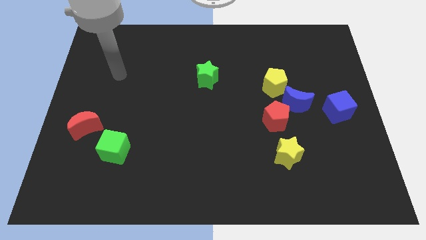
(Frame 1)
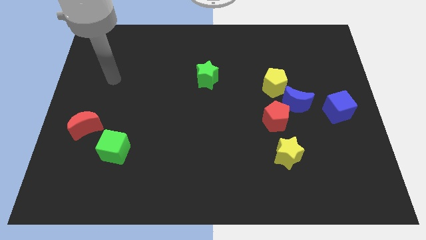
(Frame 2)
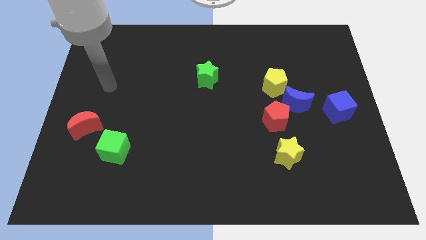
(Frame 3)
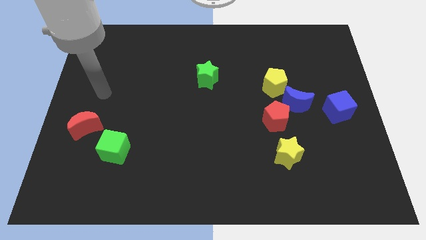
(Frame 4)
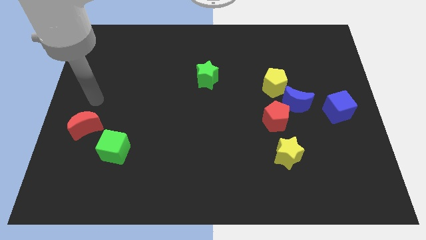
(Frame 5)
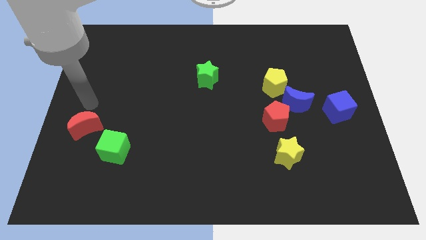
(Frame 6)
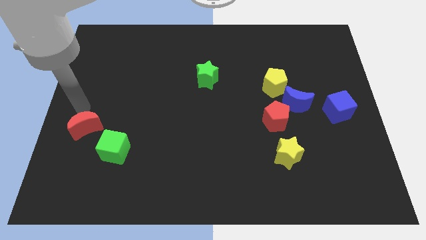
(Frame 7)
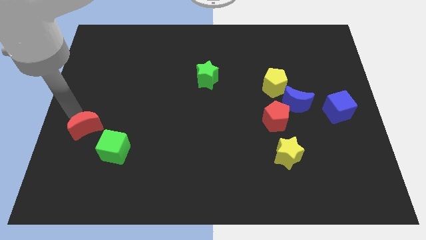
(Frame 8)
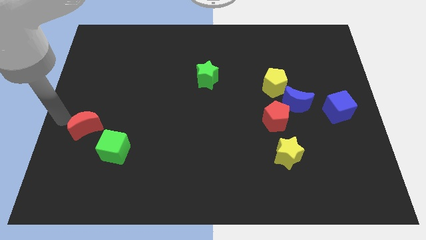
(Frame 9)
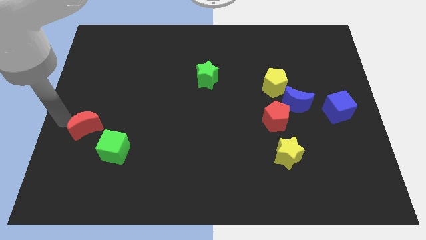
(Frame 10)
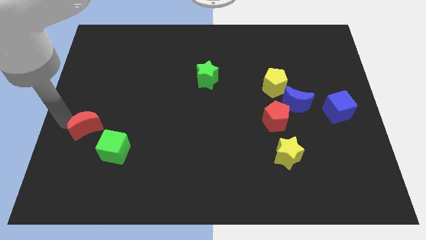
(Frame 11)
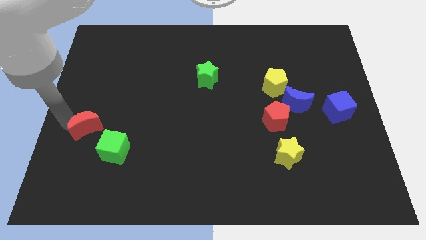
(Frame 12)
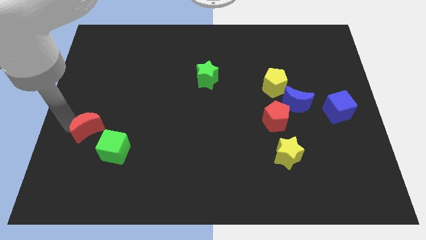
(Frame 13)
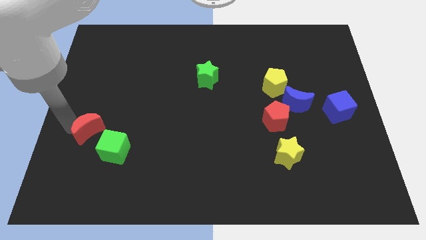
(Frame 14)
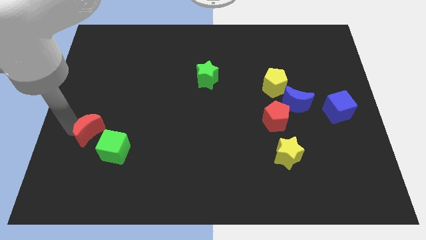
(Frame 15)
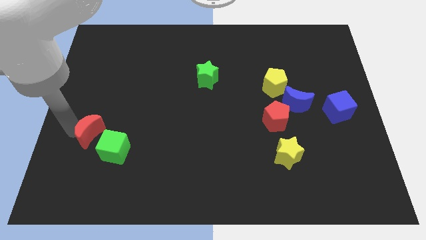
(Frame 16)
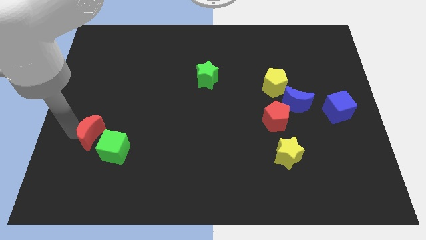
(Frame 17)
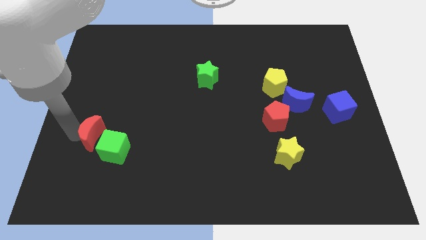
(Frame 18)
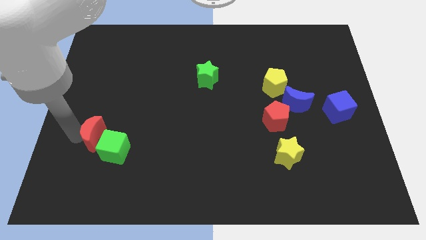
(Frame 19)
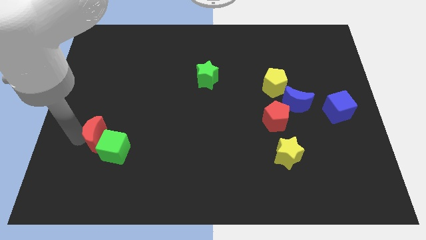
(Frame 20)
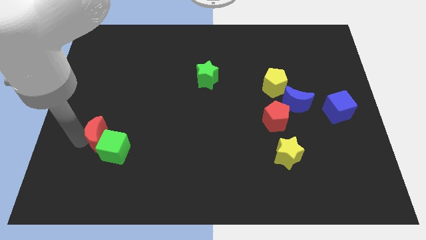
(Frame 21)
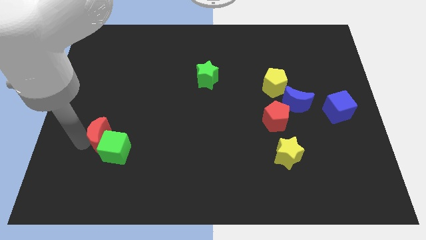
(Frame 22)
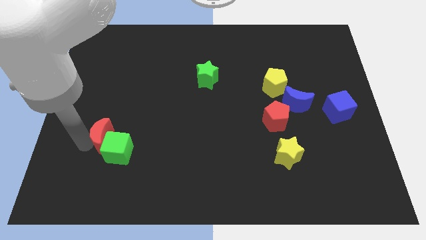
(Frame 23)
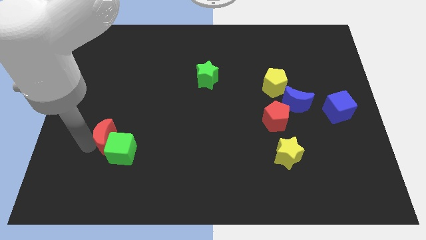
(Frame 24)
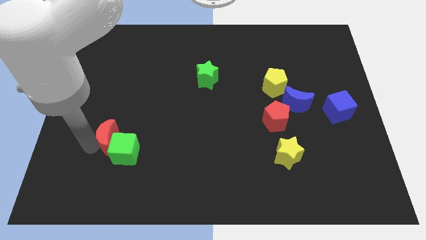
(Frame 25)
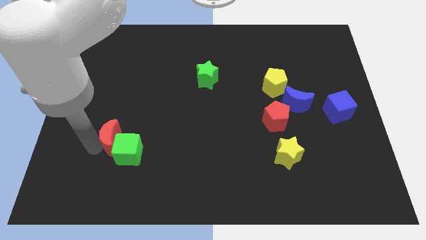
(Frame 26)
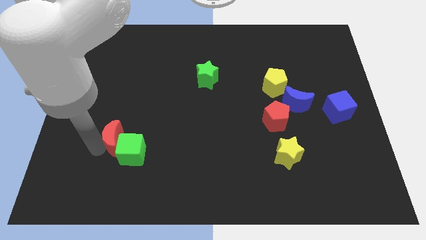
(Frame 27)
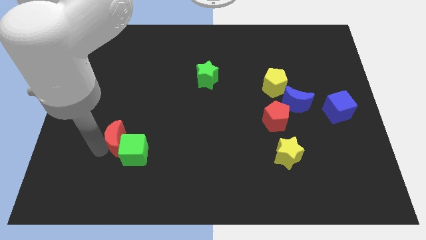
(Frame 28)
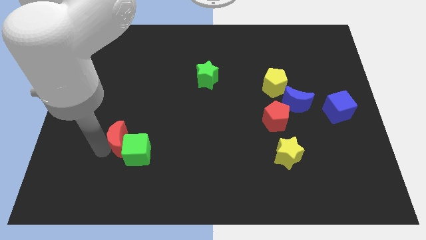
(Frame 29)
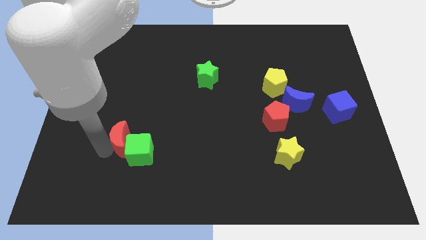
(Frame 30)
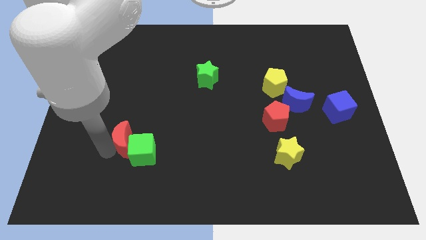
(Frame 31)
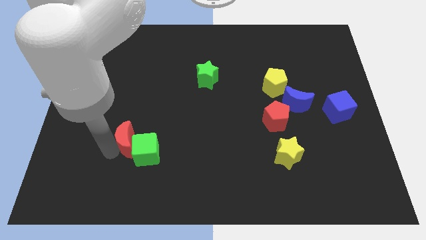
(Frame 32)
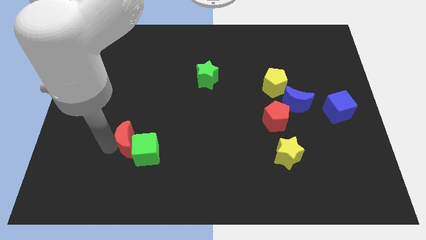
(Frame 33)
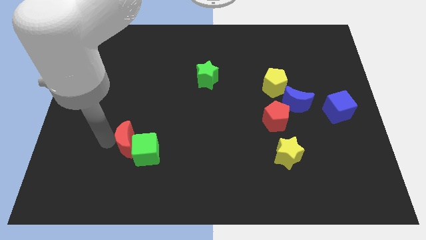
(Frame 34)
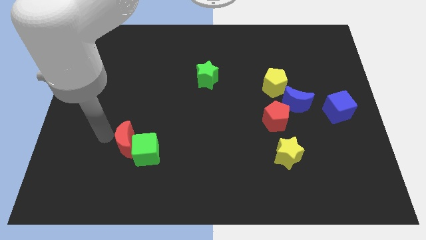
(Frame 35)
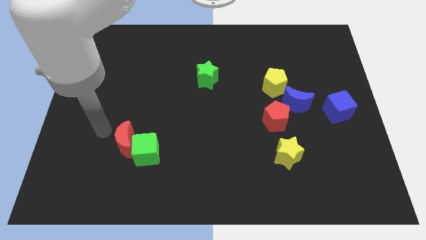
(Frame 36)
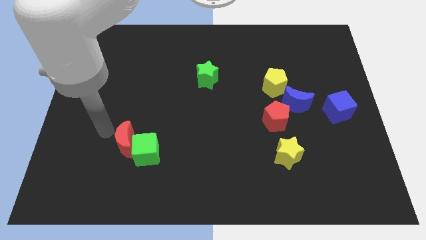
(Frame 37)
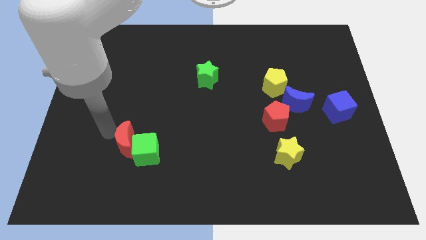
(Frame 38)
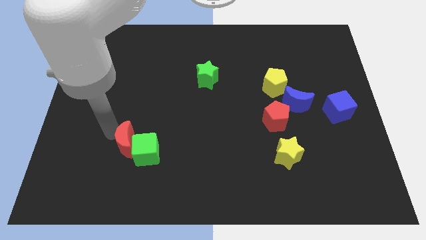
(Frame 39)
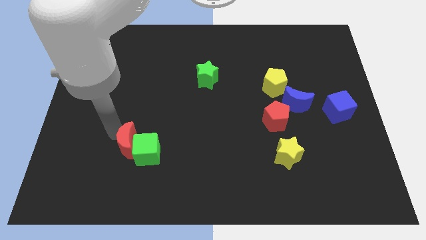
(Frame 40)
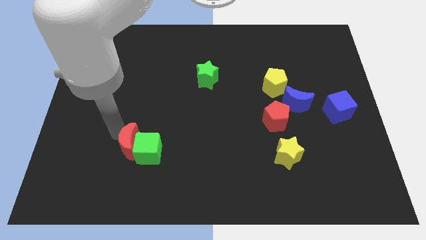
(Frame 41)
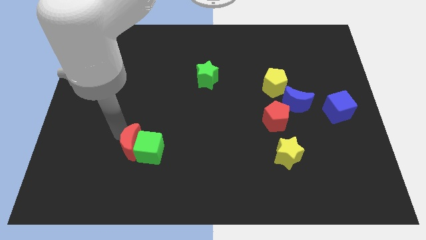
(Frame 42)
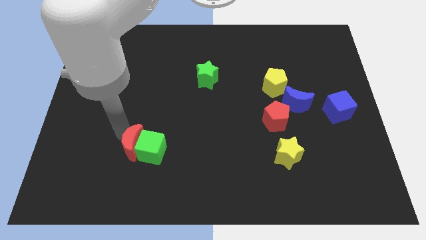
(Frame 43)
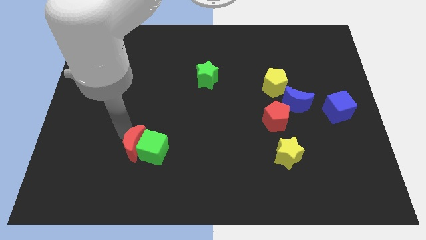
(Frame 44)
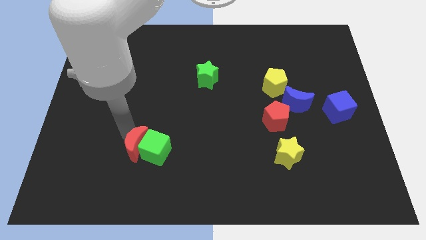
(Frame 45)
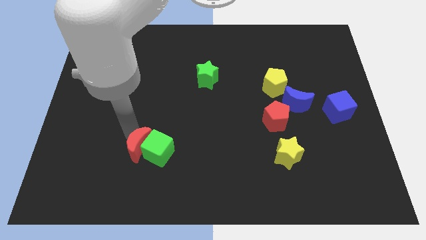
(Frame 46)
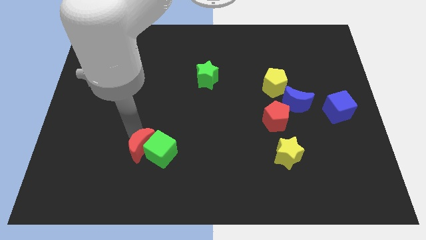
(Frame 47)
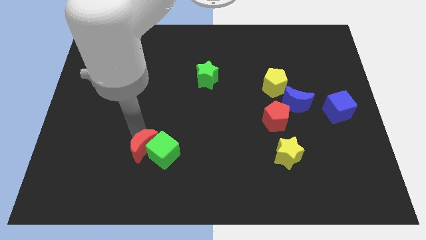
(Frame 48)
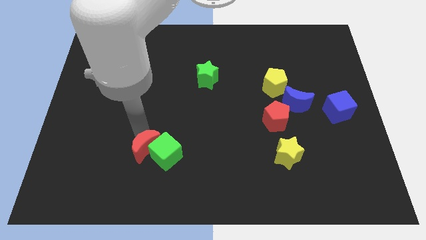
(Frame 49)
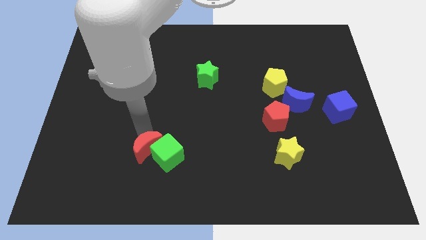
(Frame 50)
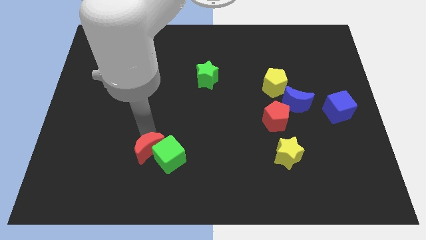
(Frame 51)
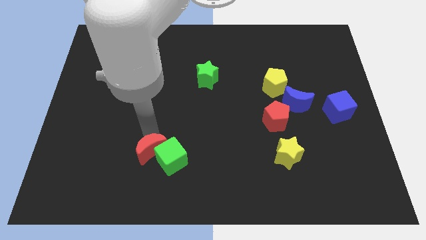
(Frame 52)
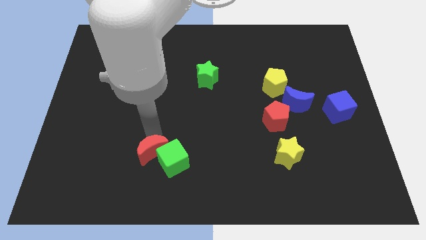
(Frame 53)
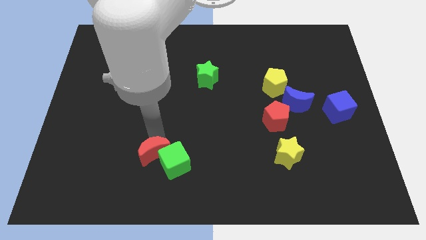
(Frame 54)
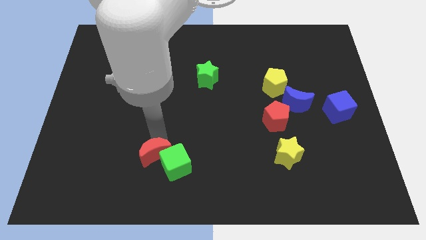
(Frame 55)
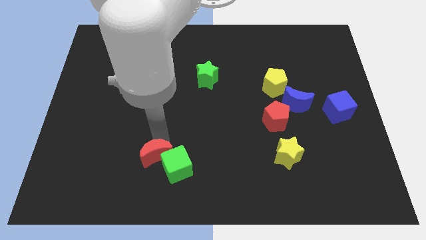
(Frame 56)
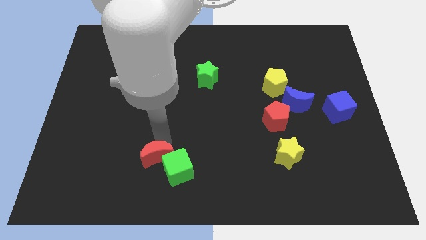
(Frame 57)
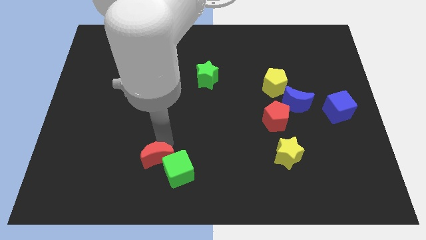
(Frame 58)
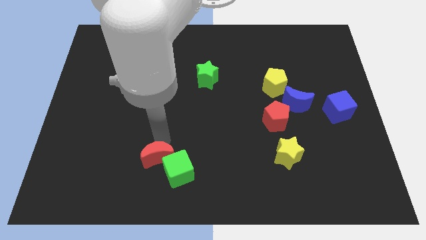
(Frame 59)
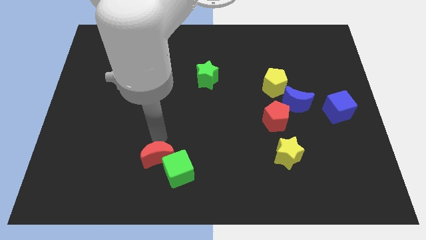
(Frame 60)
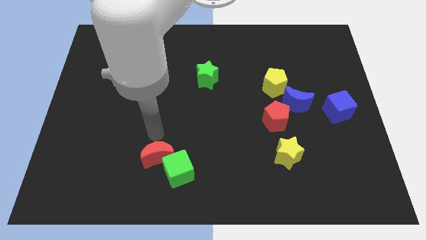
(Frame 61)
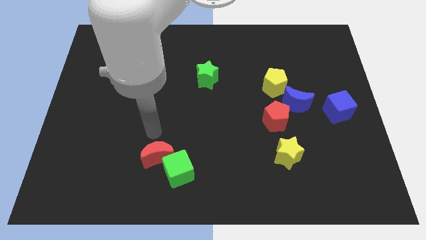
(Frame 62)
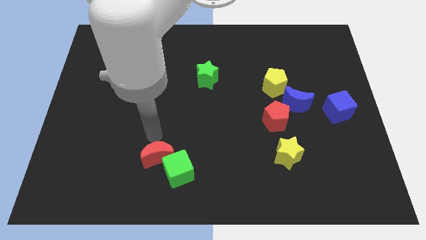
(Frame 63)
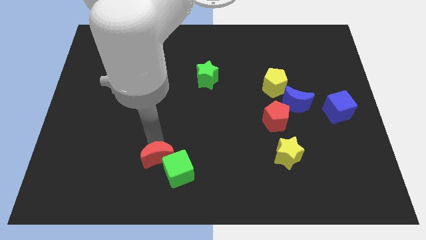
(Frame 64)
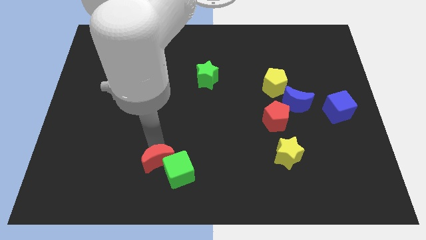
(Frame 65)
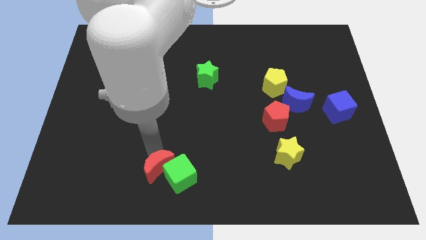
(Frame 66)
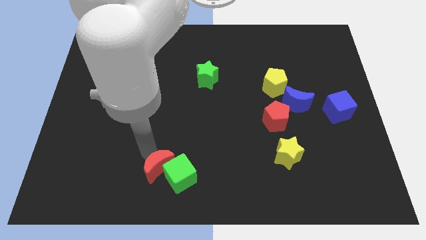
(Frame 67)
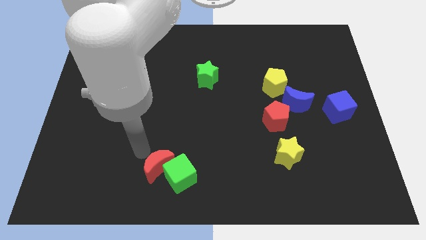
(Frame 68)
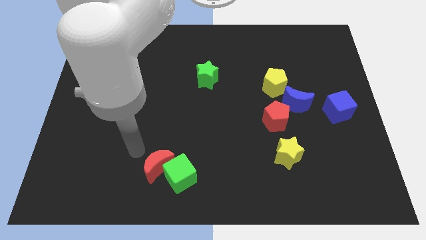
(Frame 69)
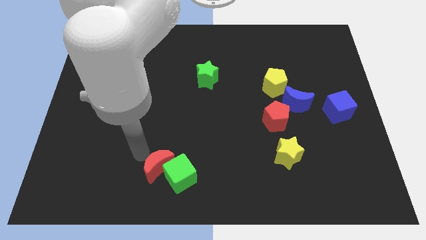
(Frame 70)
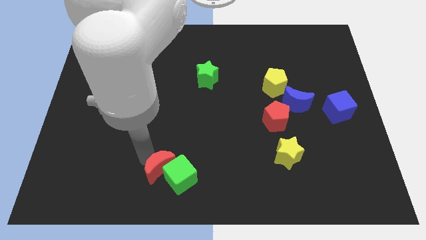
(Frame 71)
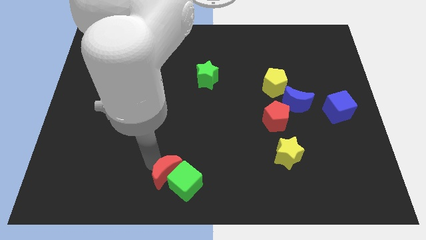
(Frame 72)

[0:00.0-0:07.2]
push the red moon to the bottom
